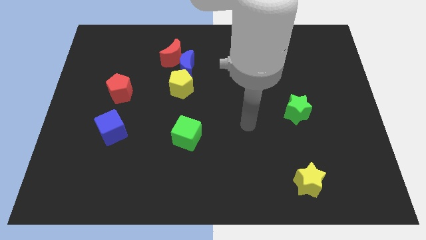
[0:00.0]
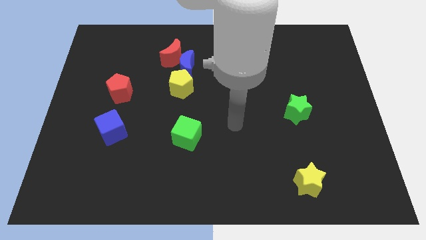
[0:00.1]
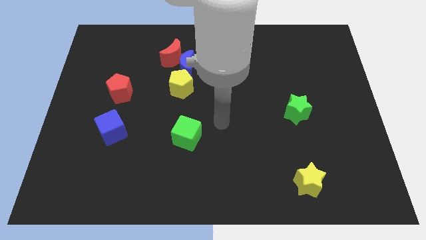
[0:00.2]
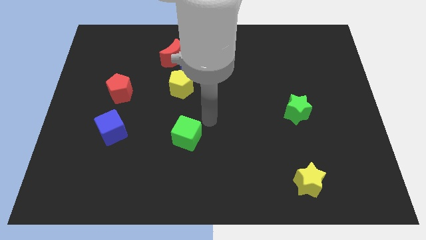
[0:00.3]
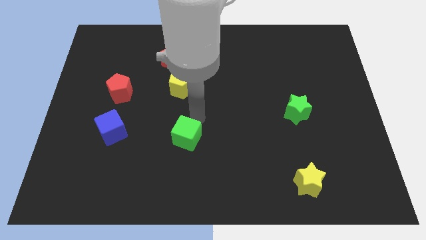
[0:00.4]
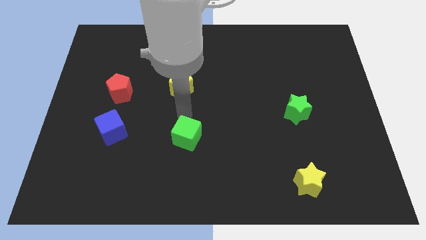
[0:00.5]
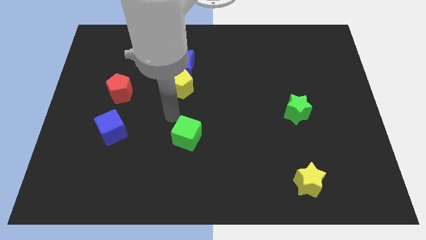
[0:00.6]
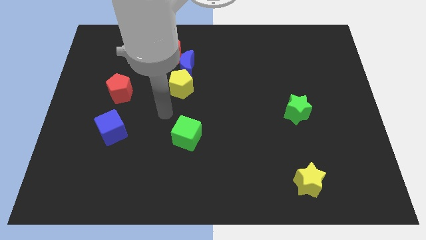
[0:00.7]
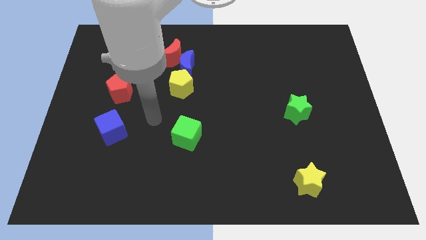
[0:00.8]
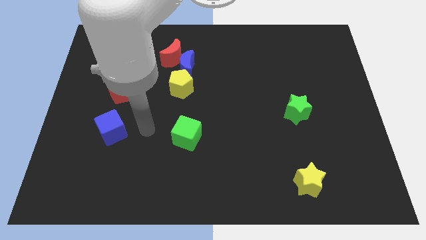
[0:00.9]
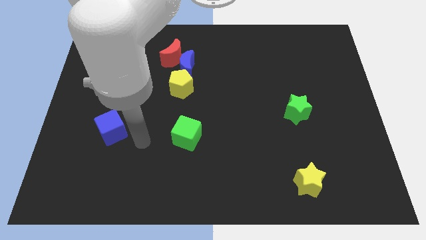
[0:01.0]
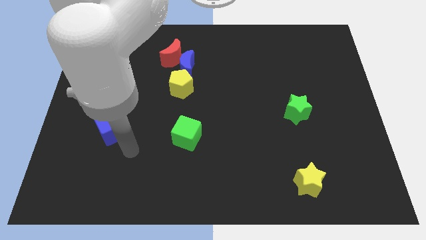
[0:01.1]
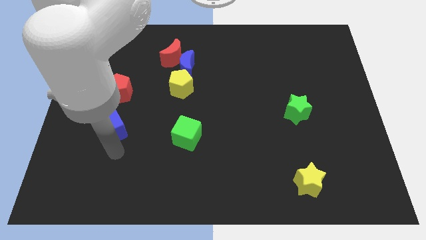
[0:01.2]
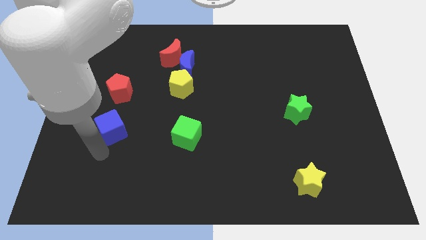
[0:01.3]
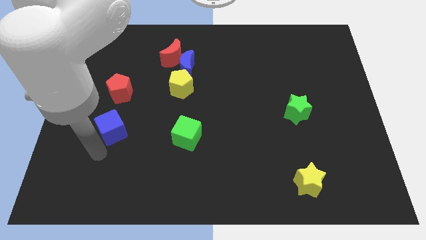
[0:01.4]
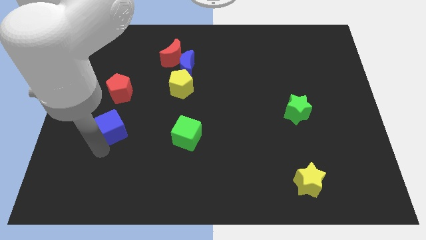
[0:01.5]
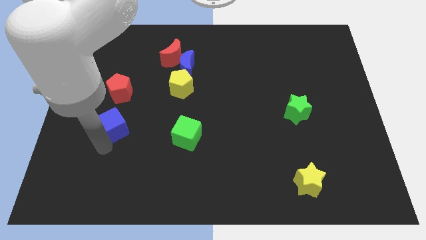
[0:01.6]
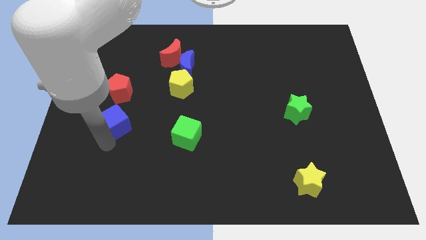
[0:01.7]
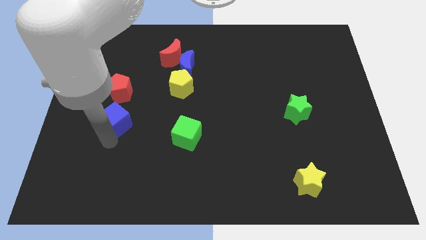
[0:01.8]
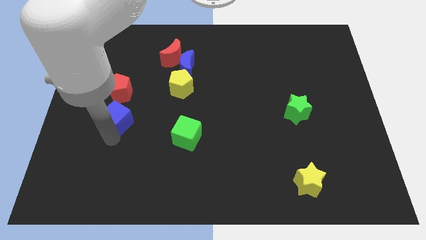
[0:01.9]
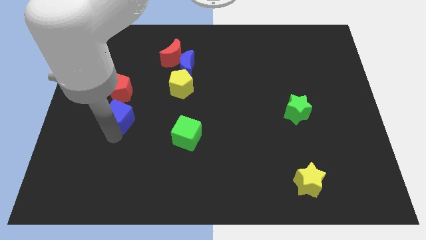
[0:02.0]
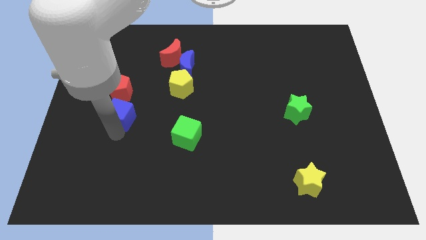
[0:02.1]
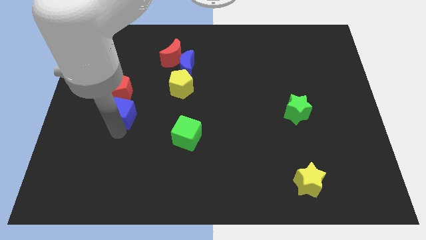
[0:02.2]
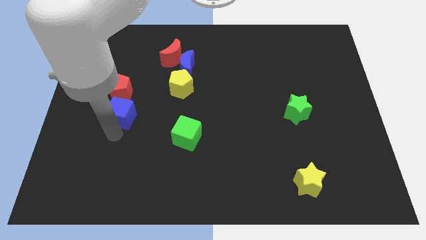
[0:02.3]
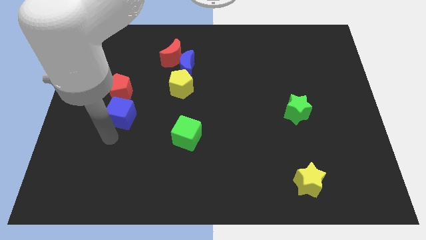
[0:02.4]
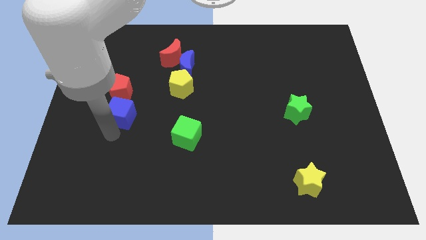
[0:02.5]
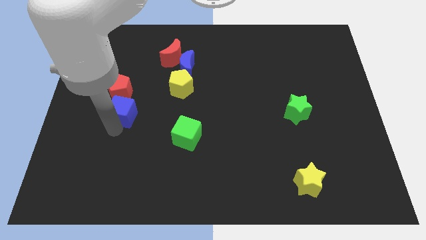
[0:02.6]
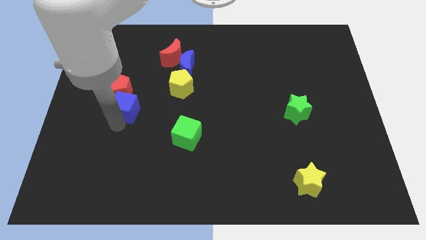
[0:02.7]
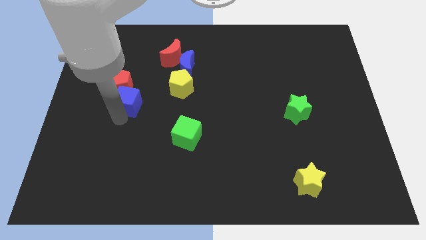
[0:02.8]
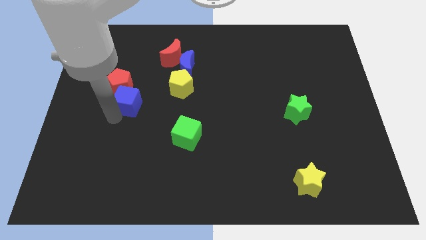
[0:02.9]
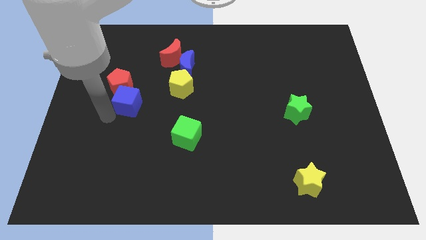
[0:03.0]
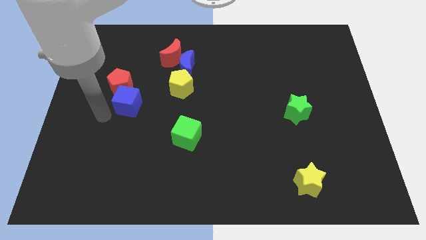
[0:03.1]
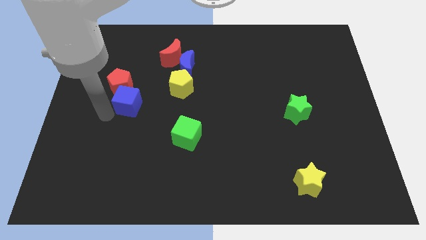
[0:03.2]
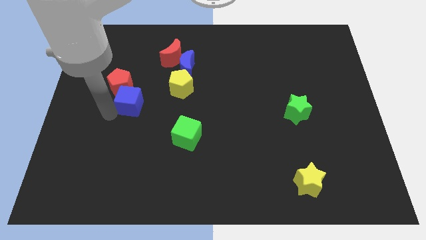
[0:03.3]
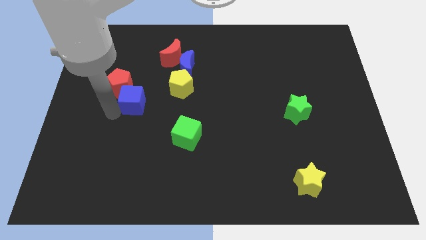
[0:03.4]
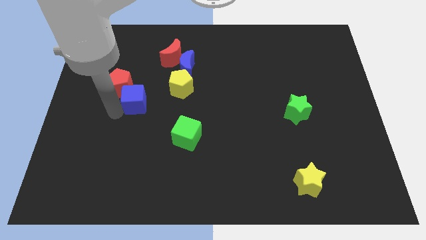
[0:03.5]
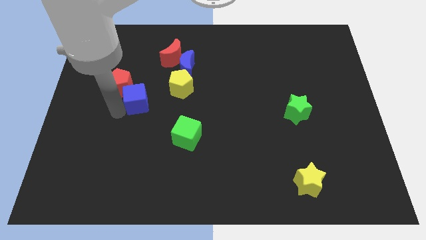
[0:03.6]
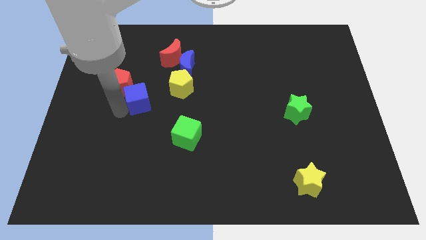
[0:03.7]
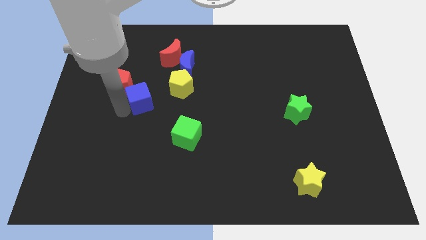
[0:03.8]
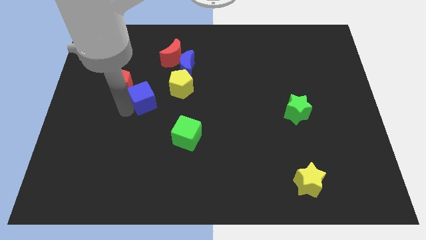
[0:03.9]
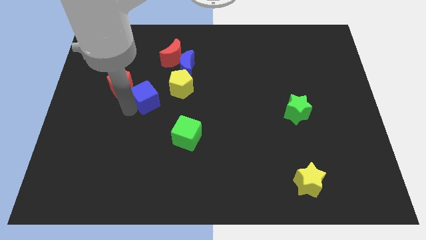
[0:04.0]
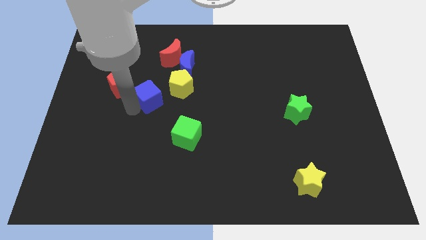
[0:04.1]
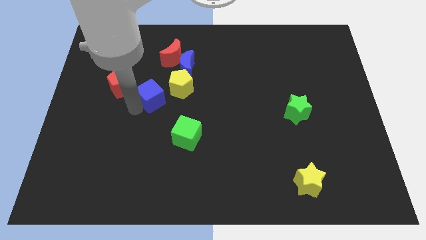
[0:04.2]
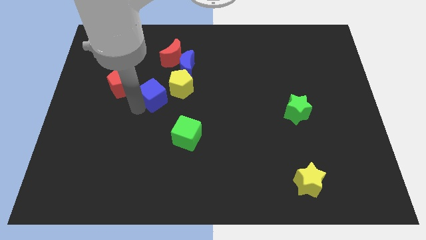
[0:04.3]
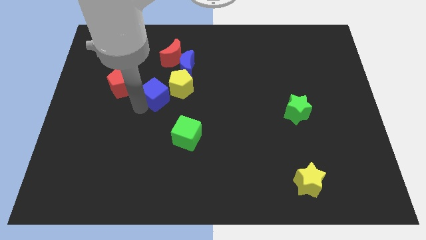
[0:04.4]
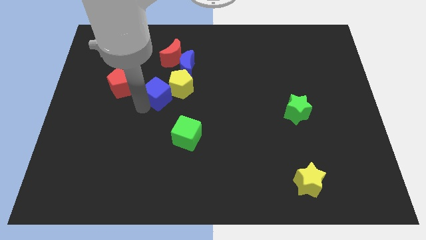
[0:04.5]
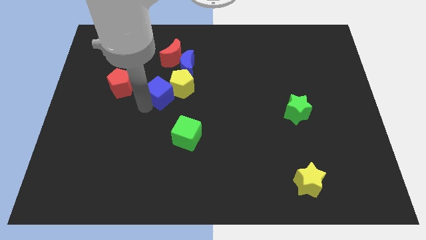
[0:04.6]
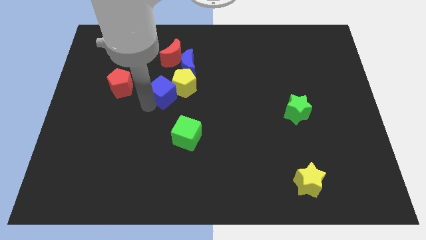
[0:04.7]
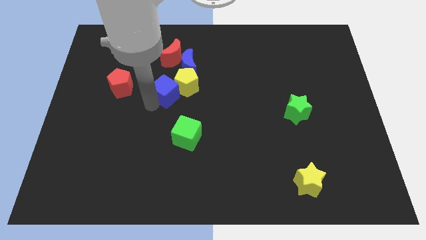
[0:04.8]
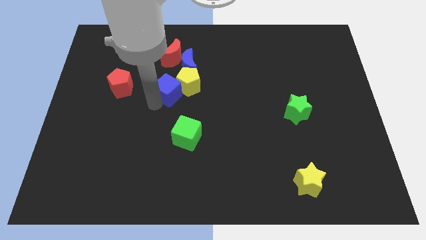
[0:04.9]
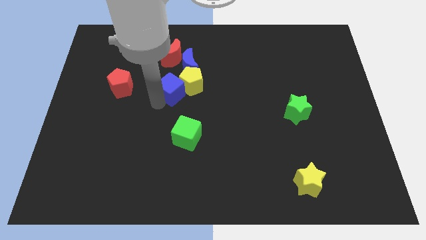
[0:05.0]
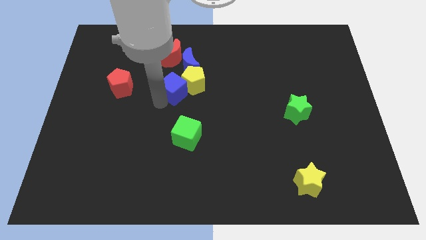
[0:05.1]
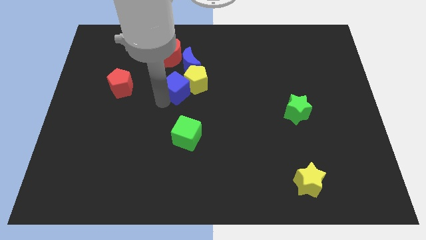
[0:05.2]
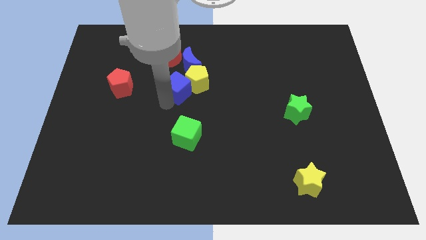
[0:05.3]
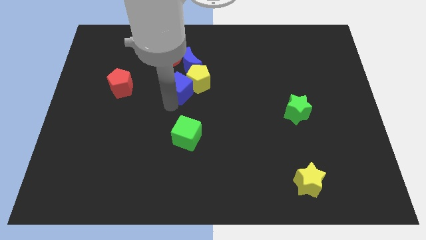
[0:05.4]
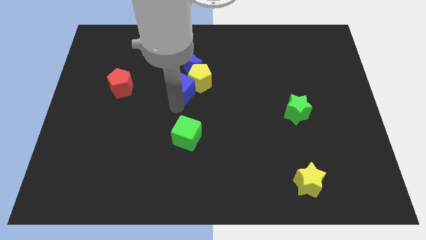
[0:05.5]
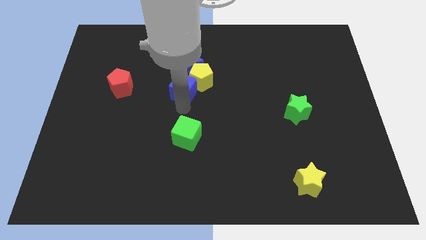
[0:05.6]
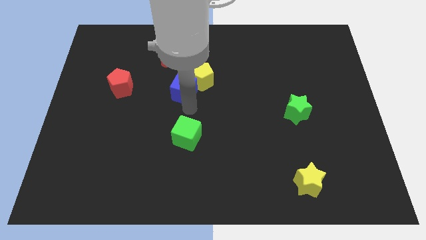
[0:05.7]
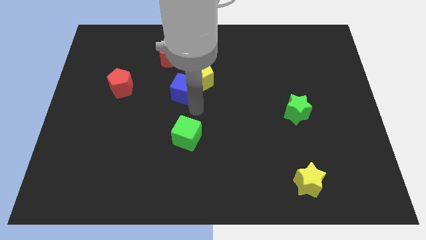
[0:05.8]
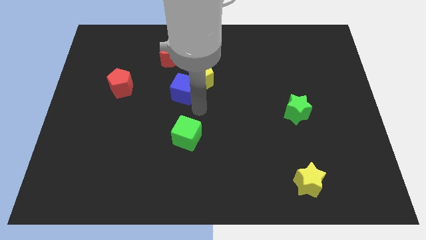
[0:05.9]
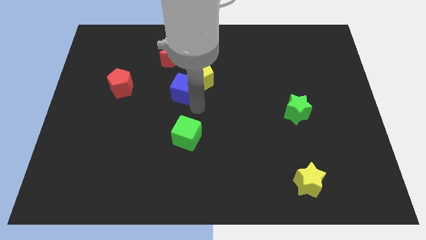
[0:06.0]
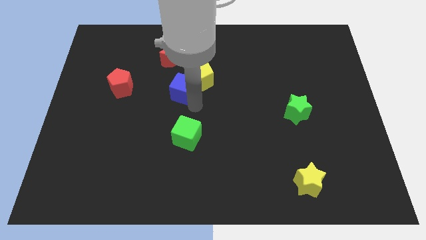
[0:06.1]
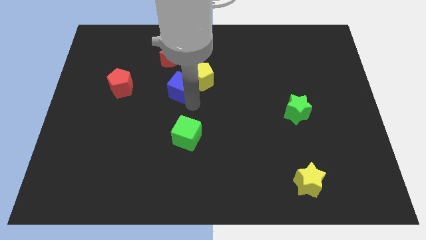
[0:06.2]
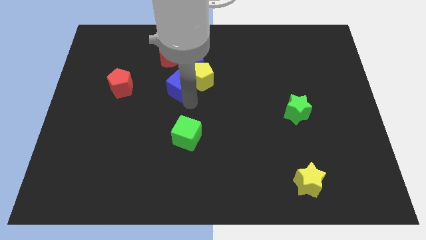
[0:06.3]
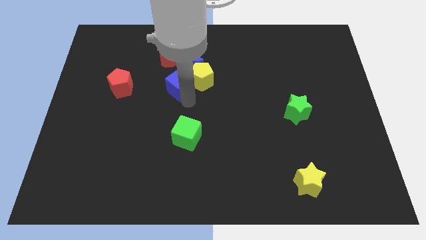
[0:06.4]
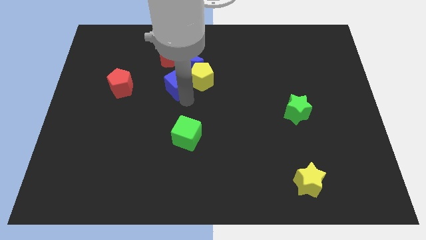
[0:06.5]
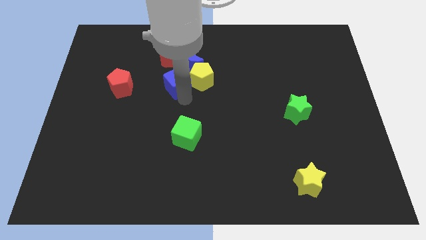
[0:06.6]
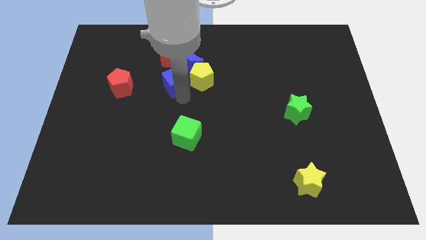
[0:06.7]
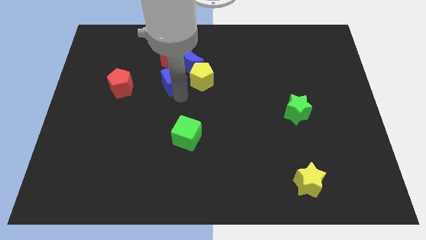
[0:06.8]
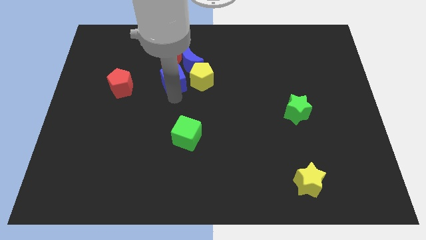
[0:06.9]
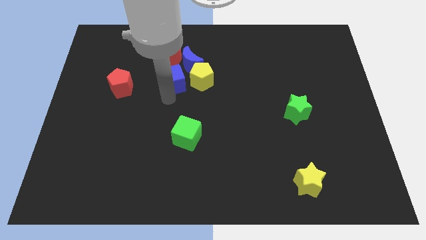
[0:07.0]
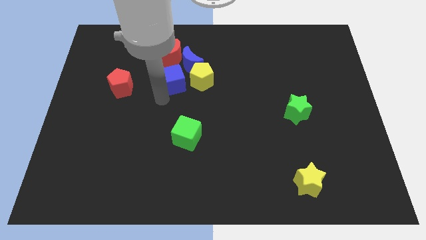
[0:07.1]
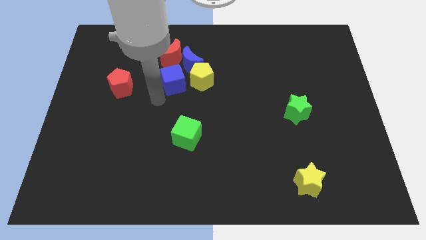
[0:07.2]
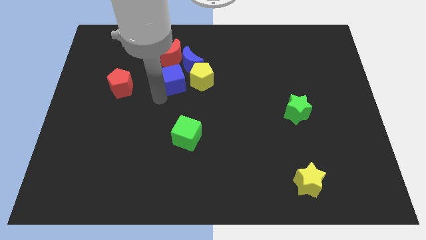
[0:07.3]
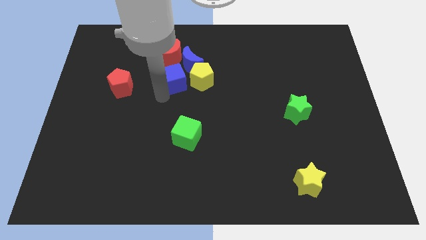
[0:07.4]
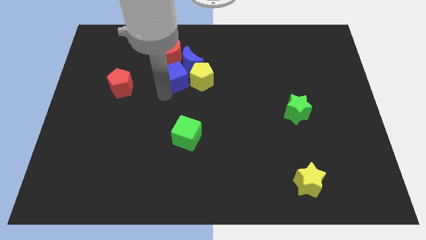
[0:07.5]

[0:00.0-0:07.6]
move the blue cube towards the blue moon
